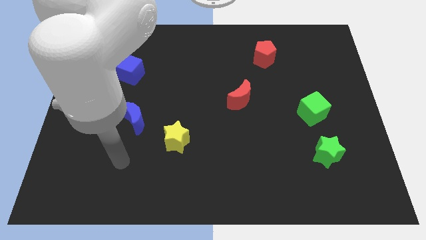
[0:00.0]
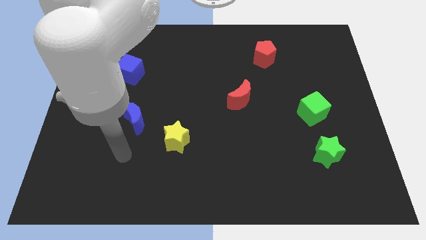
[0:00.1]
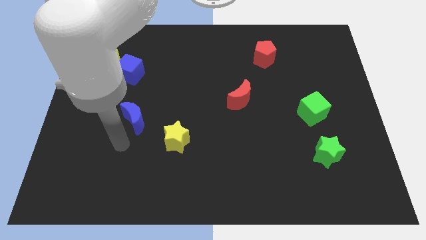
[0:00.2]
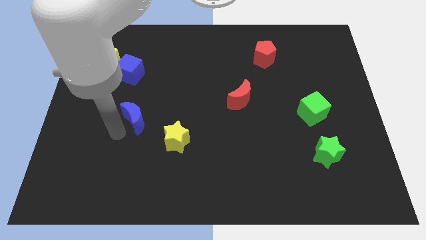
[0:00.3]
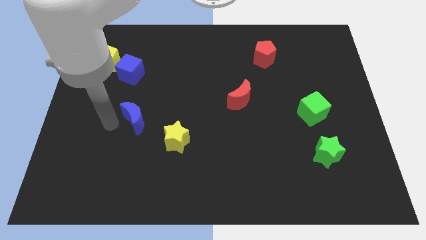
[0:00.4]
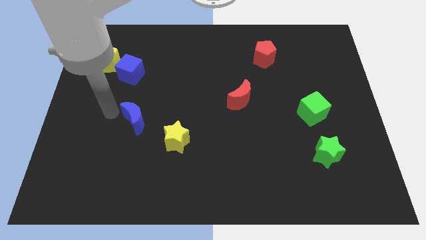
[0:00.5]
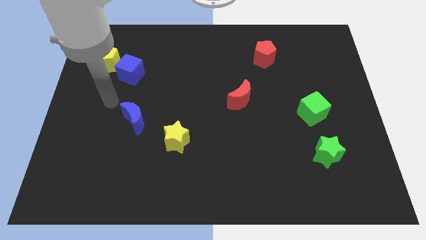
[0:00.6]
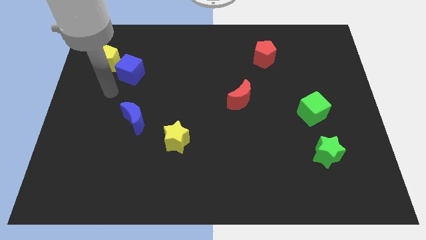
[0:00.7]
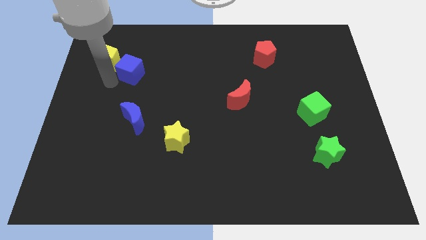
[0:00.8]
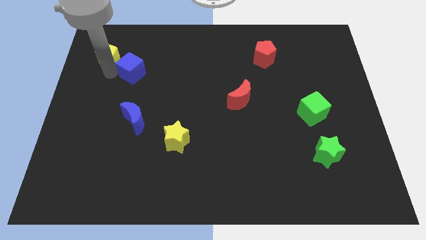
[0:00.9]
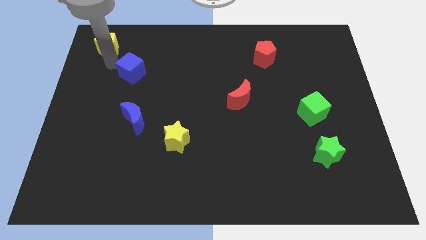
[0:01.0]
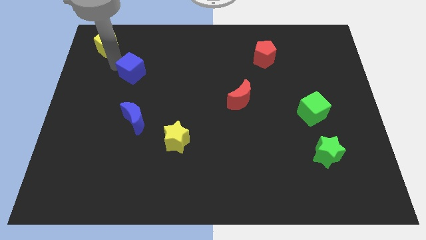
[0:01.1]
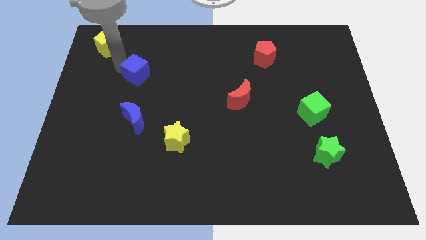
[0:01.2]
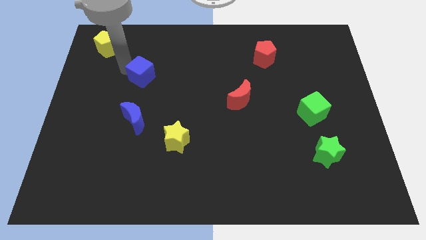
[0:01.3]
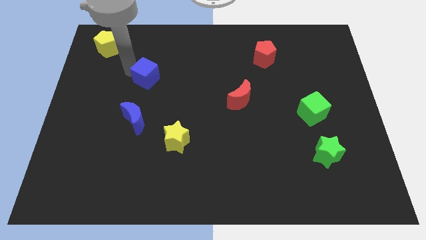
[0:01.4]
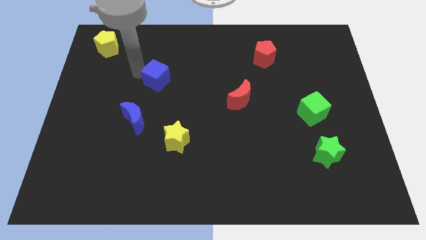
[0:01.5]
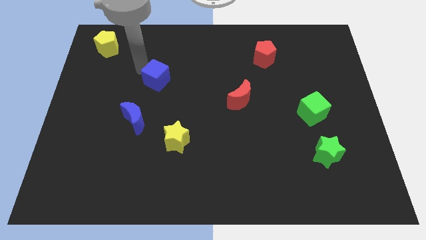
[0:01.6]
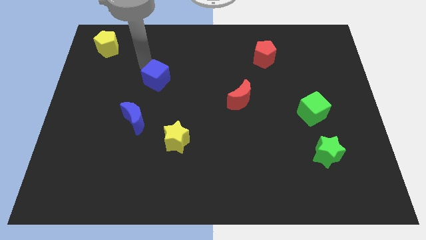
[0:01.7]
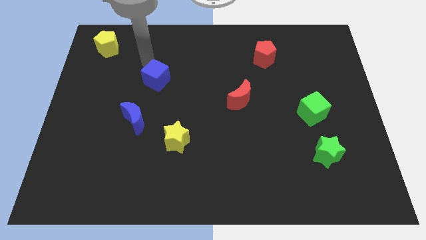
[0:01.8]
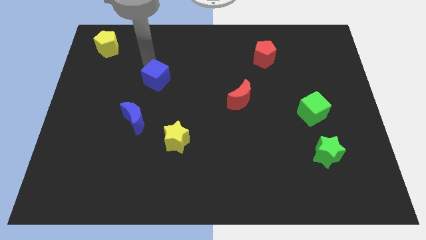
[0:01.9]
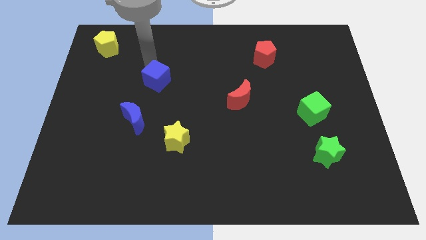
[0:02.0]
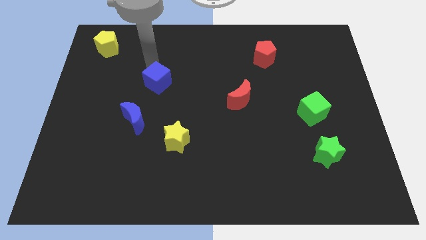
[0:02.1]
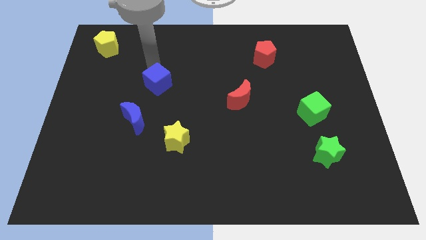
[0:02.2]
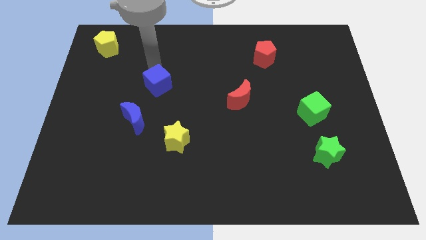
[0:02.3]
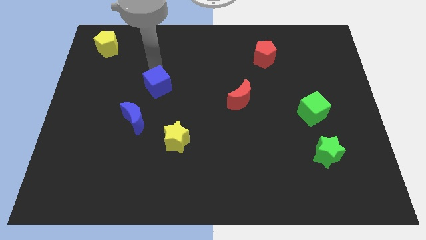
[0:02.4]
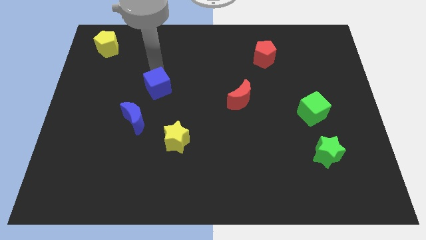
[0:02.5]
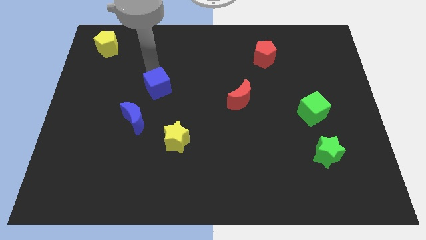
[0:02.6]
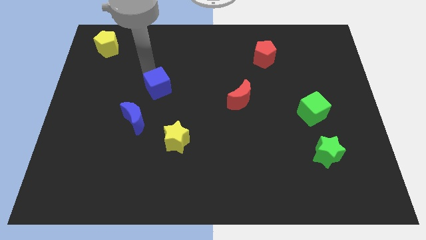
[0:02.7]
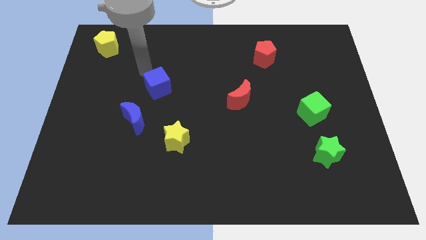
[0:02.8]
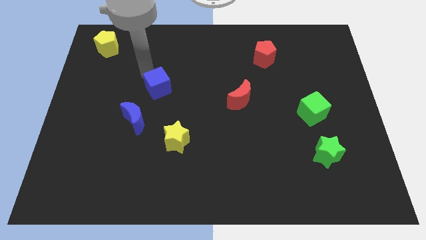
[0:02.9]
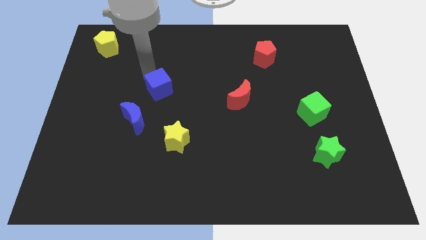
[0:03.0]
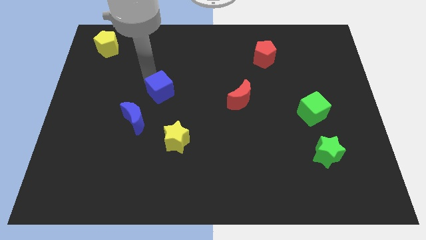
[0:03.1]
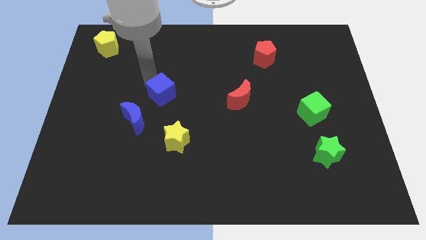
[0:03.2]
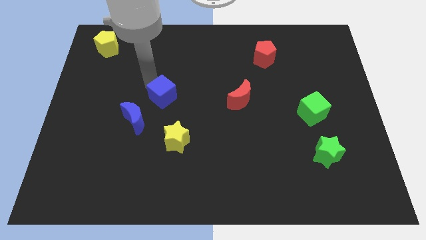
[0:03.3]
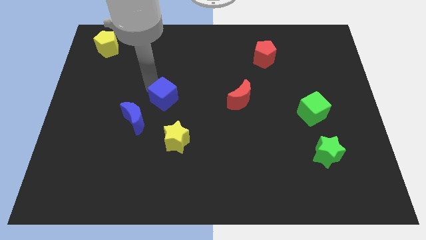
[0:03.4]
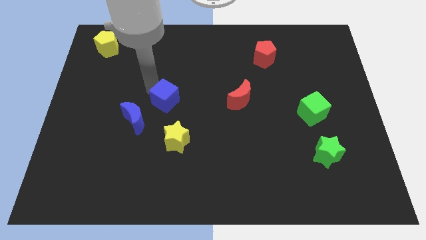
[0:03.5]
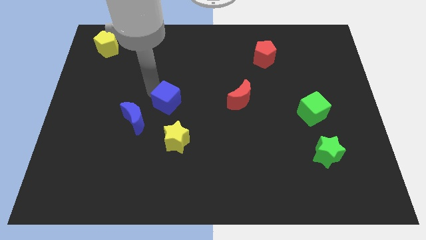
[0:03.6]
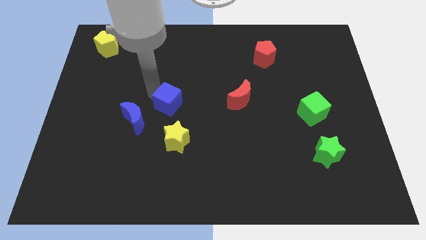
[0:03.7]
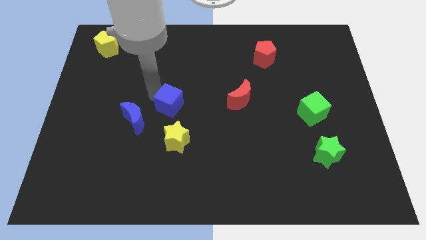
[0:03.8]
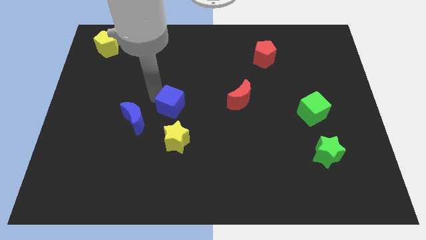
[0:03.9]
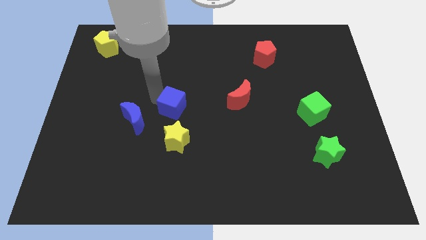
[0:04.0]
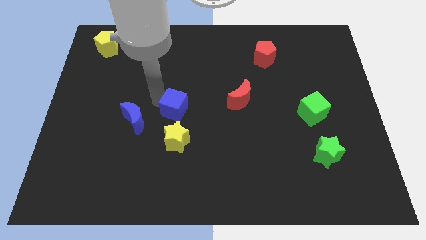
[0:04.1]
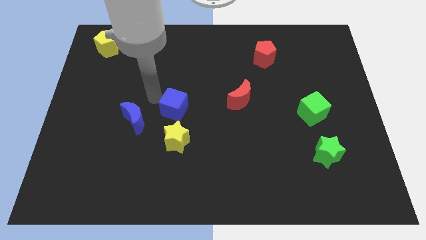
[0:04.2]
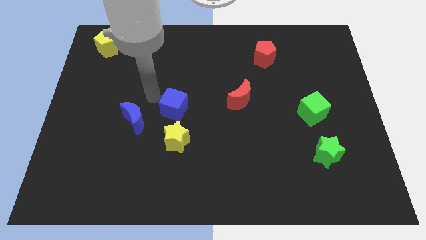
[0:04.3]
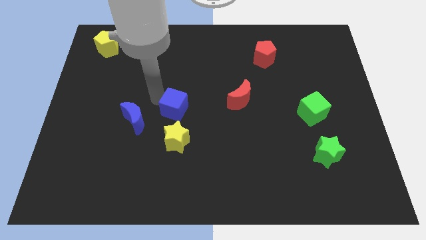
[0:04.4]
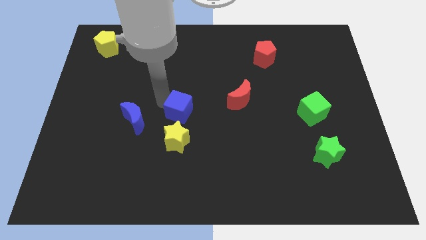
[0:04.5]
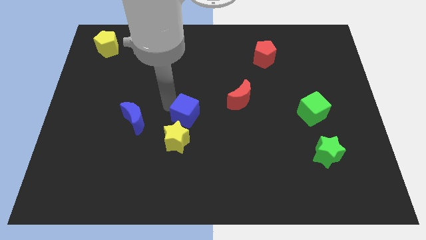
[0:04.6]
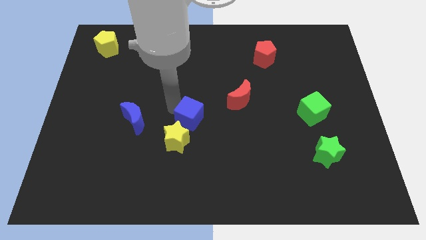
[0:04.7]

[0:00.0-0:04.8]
push the blue cube downwards and then right

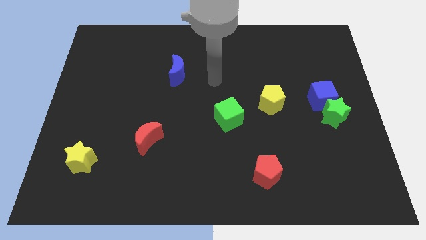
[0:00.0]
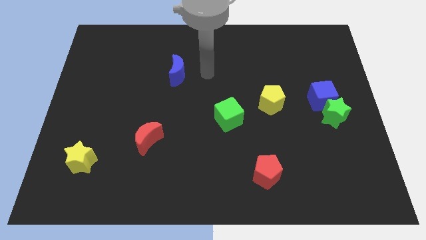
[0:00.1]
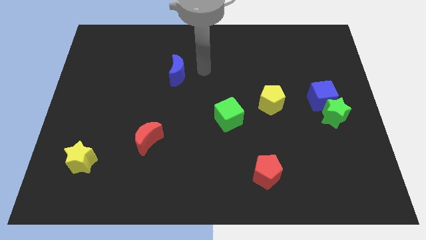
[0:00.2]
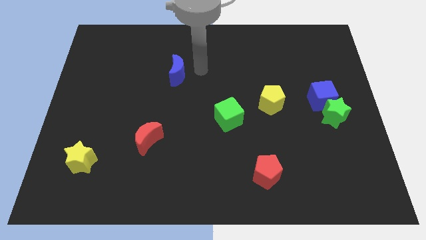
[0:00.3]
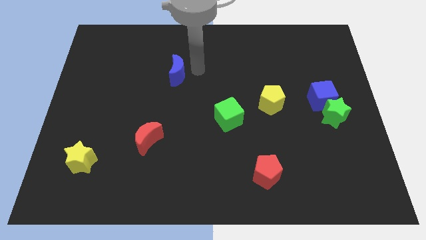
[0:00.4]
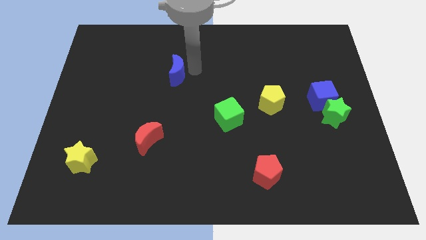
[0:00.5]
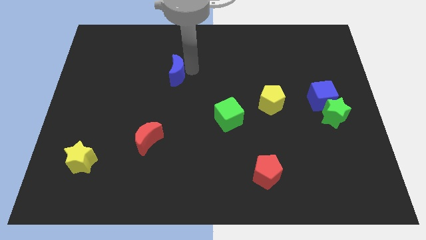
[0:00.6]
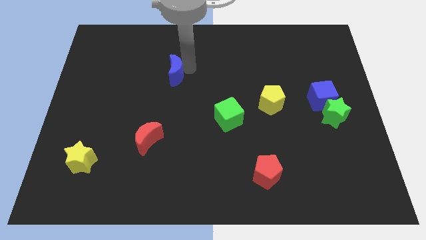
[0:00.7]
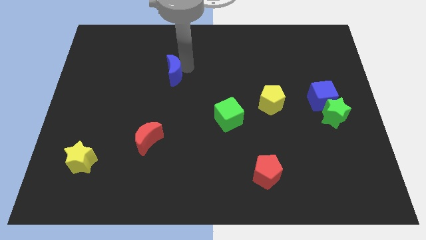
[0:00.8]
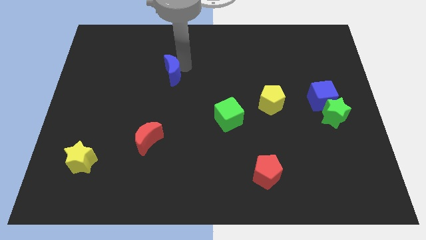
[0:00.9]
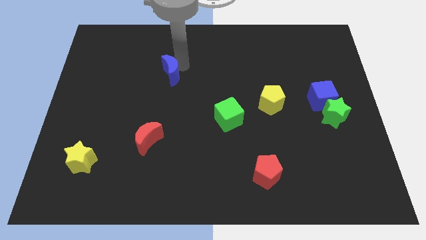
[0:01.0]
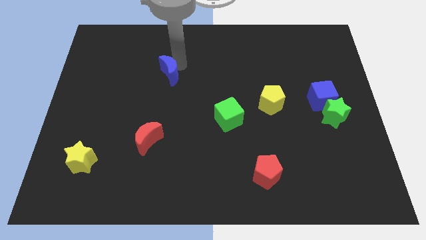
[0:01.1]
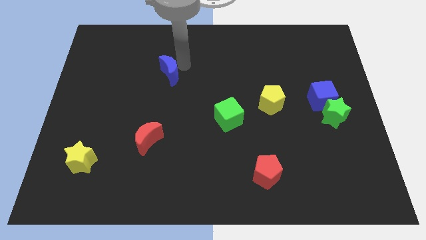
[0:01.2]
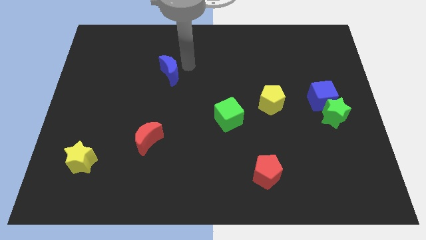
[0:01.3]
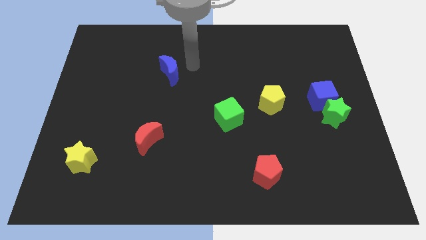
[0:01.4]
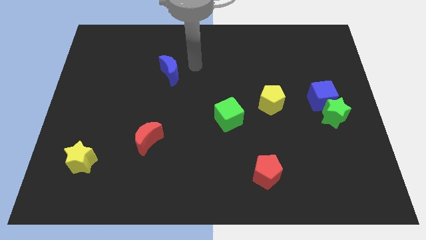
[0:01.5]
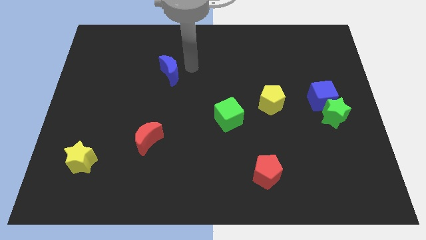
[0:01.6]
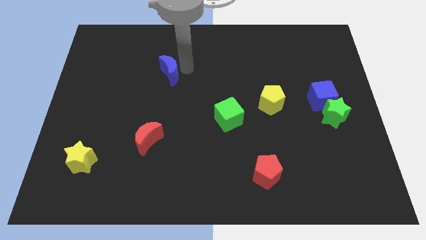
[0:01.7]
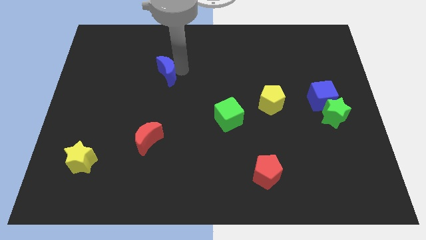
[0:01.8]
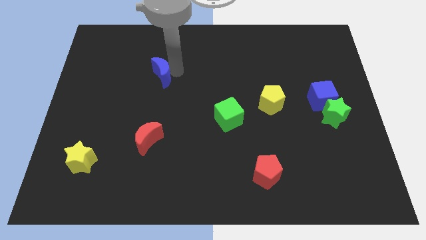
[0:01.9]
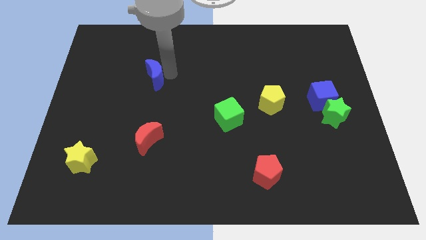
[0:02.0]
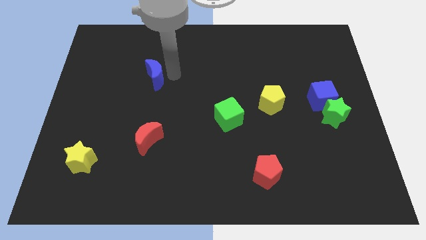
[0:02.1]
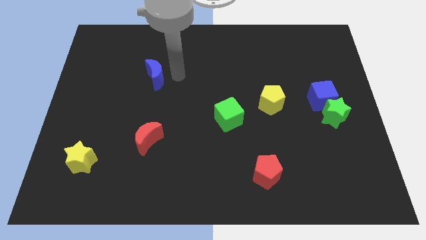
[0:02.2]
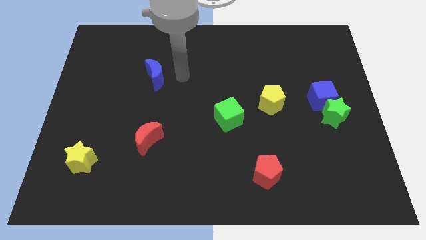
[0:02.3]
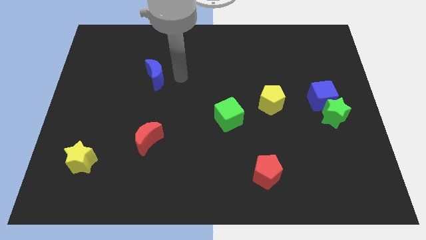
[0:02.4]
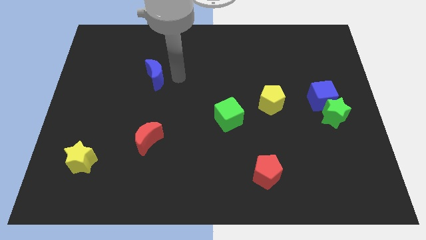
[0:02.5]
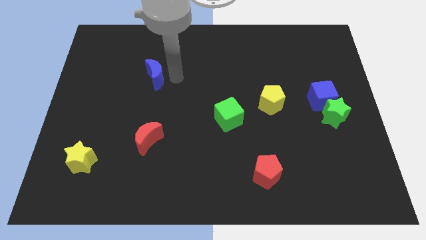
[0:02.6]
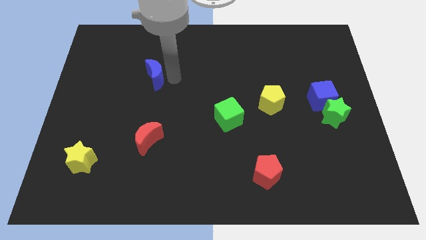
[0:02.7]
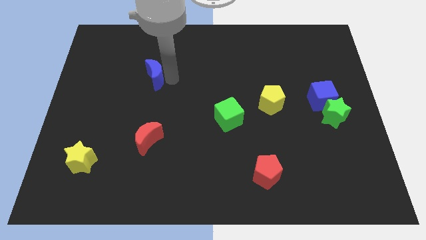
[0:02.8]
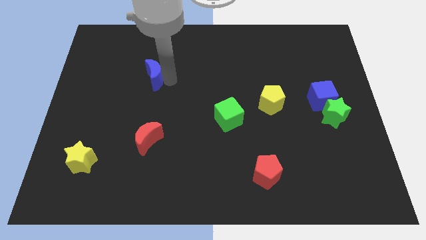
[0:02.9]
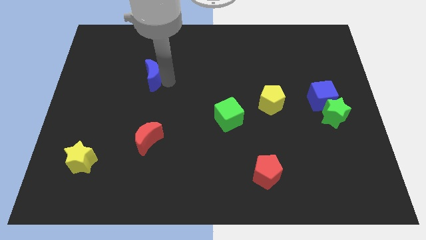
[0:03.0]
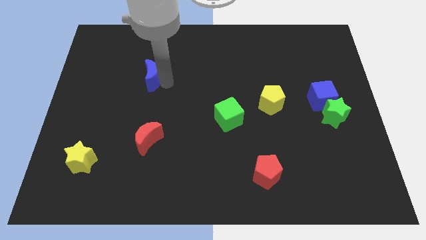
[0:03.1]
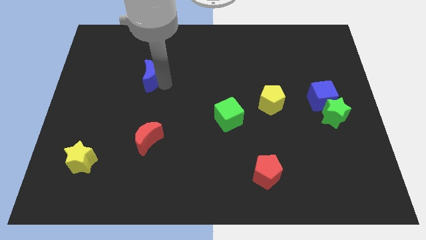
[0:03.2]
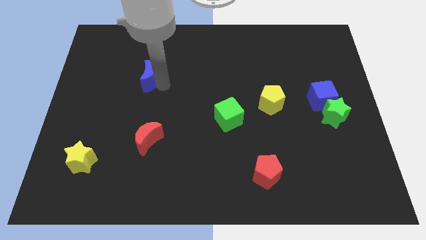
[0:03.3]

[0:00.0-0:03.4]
slide the blue moon a little bit left
